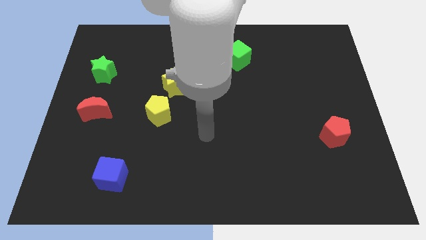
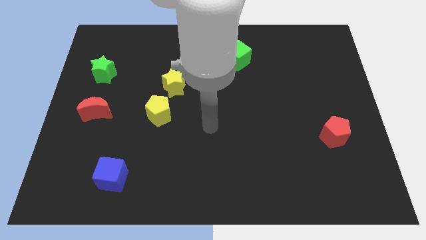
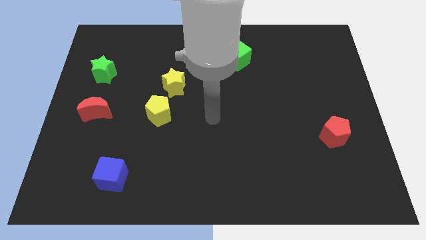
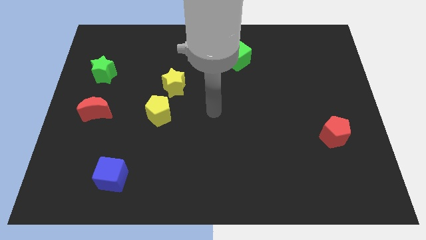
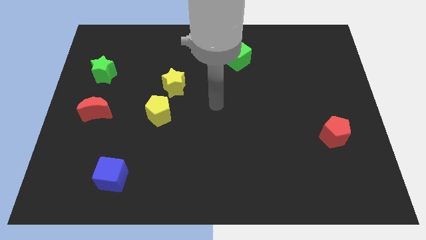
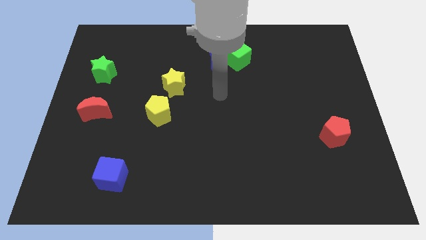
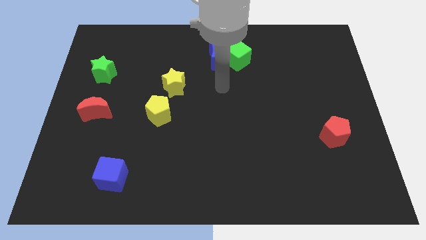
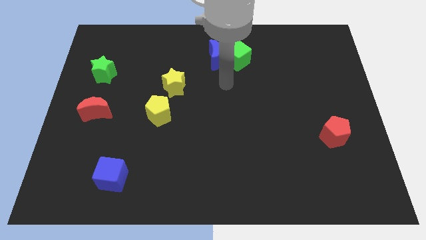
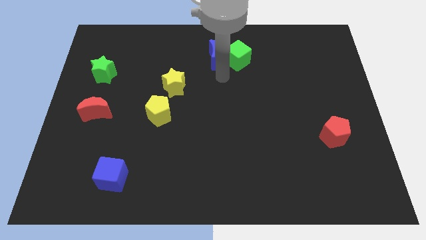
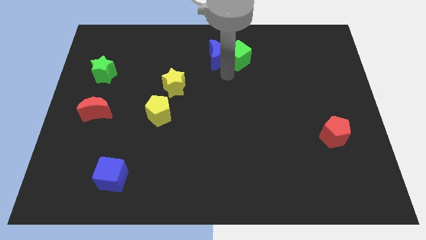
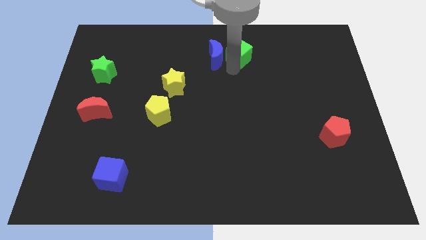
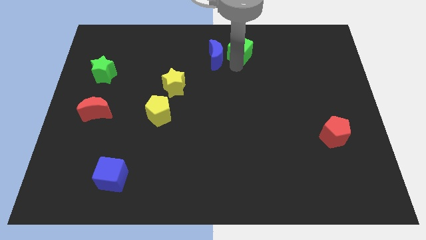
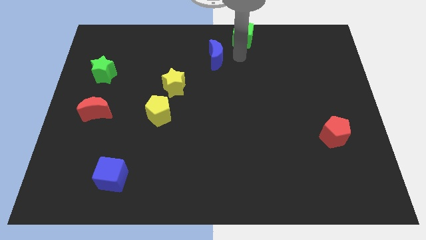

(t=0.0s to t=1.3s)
separate the blue moon from the green cube

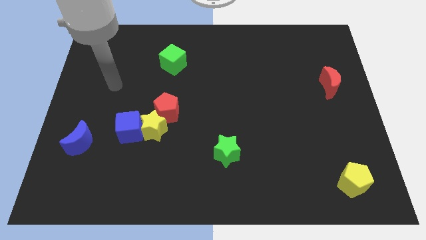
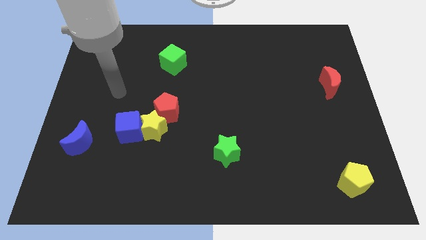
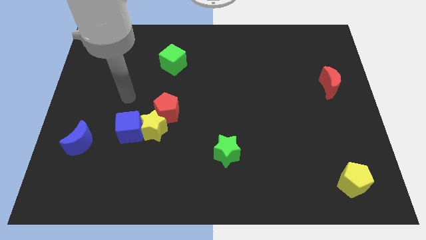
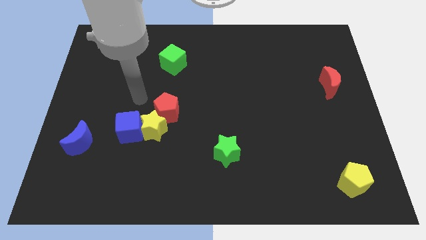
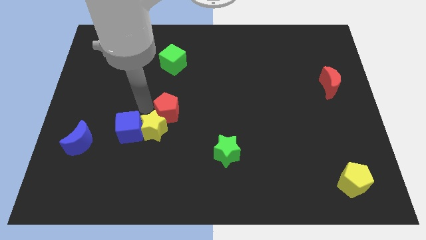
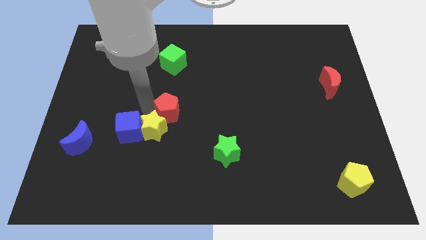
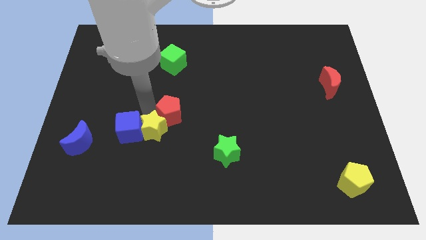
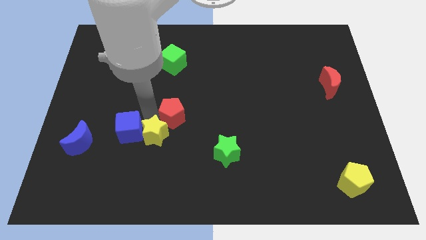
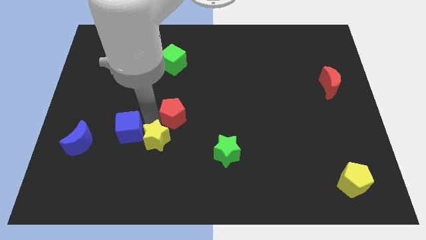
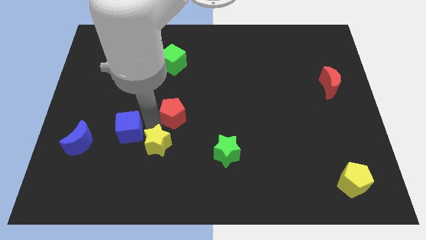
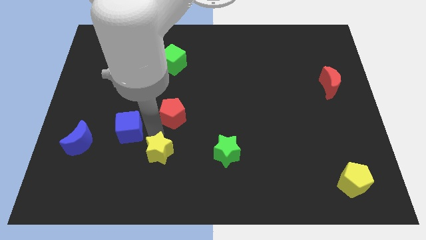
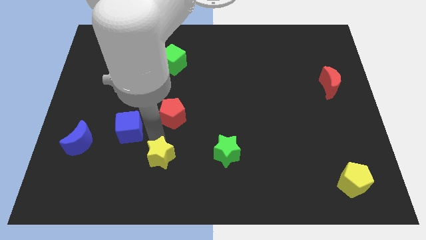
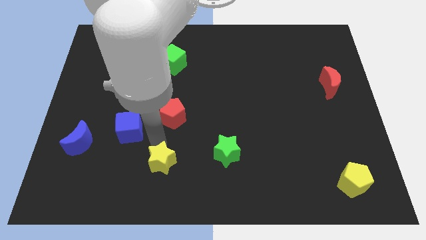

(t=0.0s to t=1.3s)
move the yellow star away from the blue cube and red pentagon

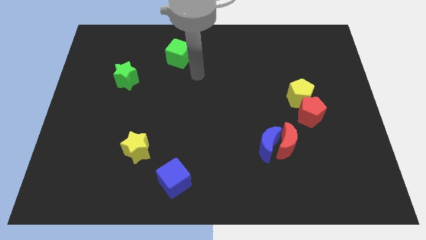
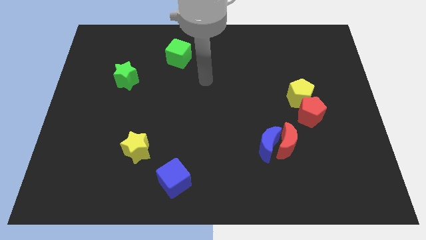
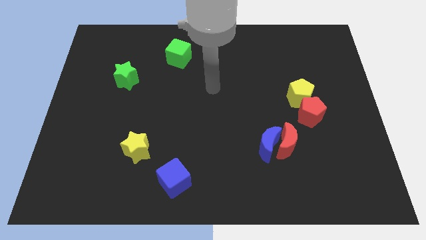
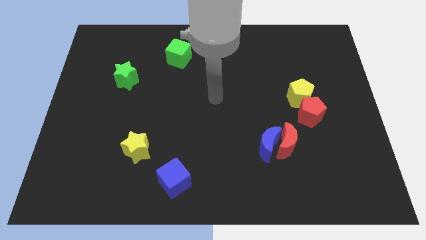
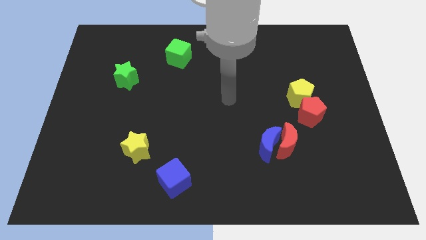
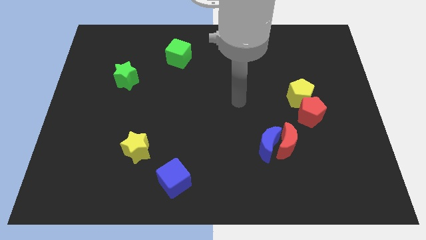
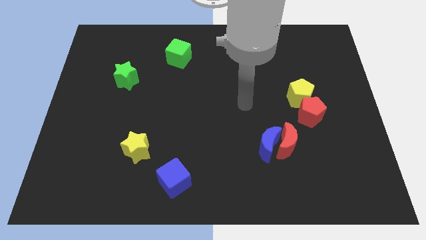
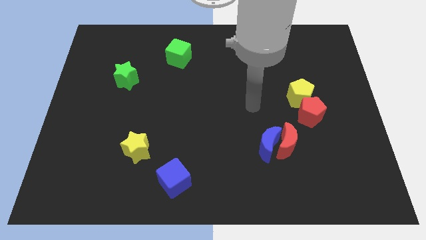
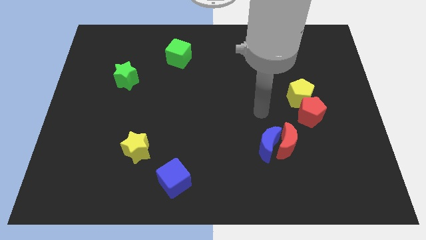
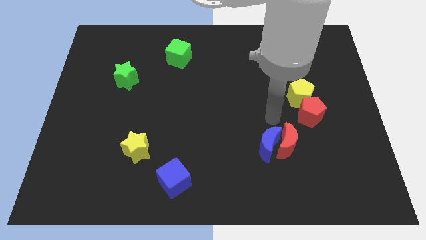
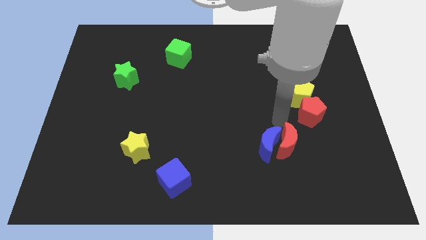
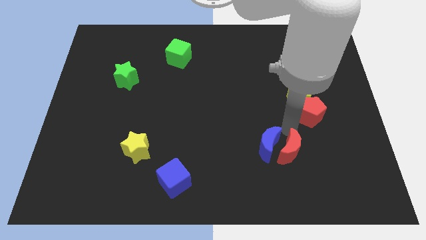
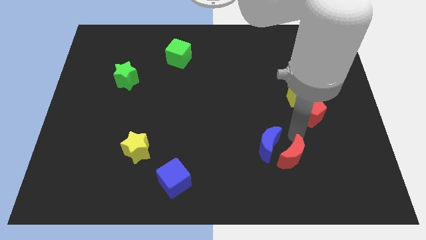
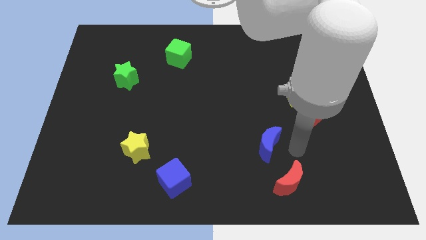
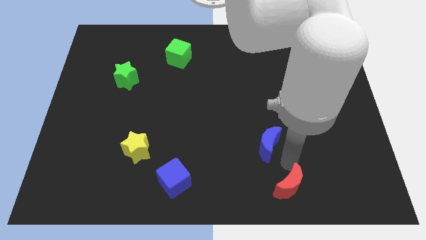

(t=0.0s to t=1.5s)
separate the blue moon from the red moon

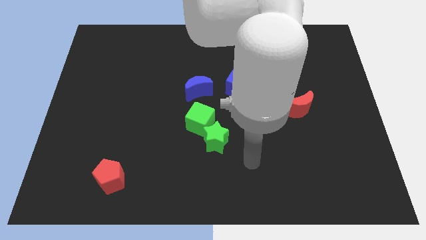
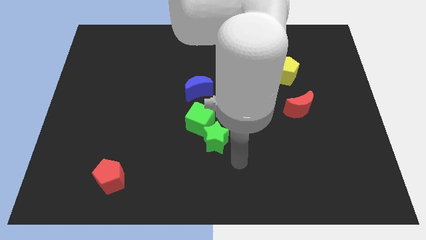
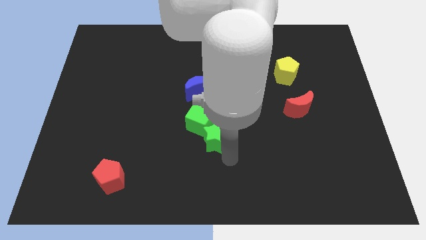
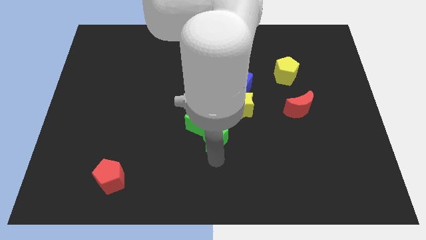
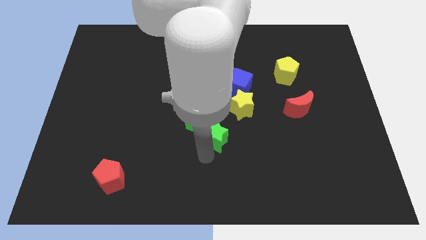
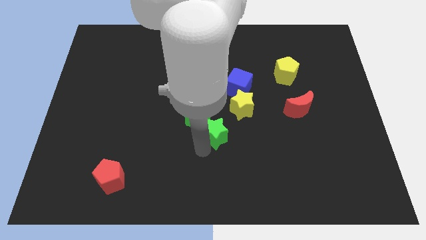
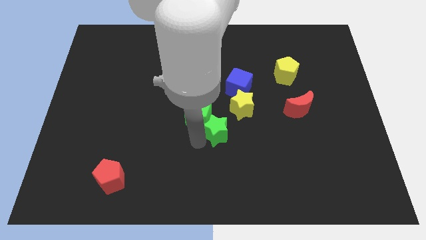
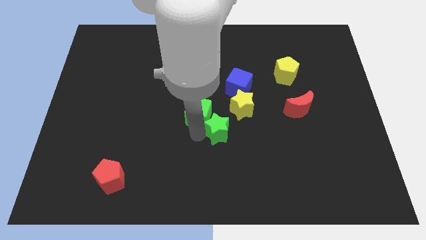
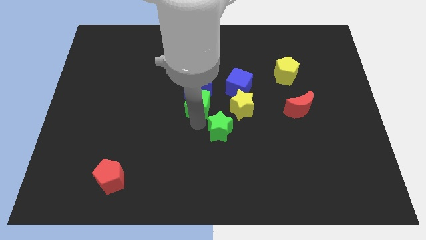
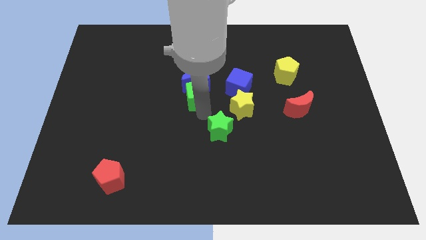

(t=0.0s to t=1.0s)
move the green star away from the green cube

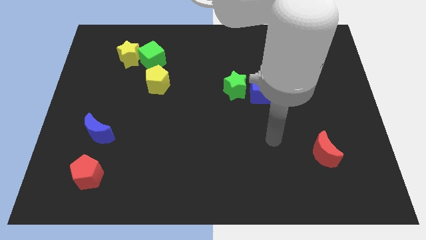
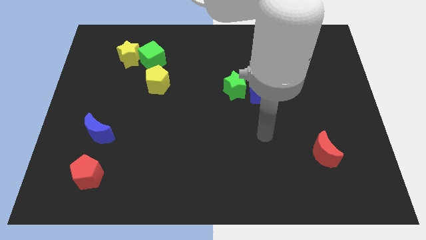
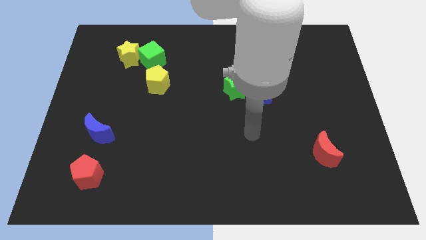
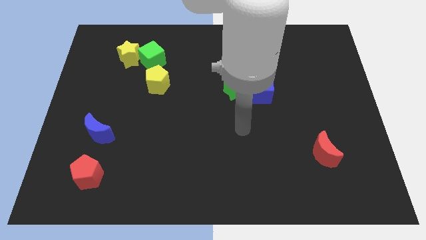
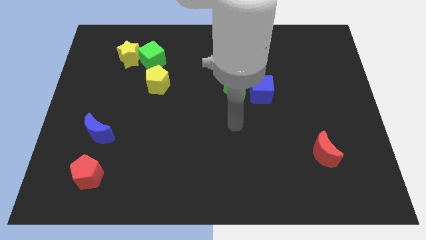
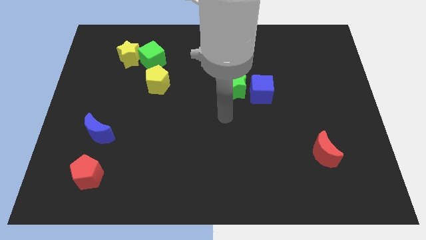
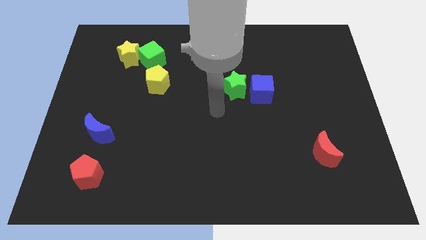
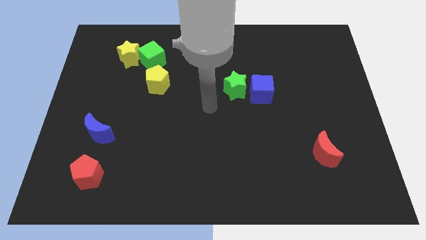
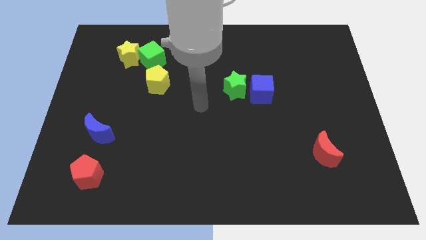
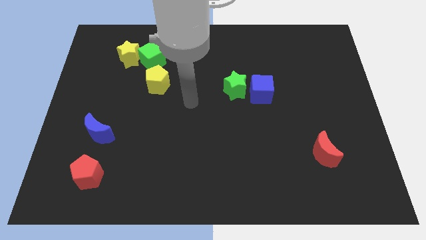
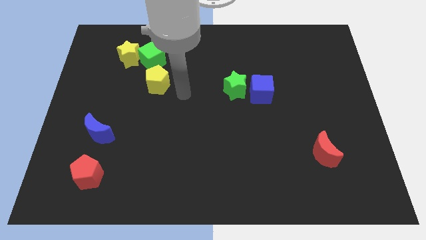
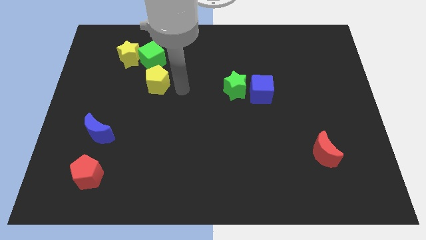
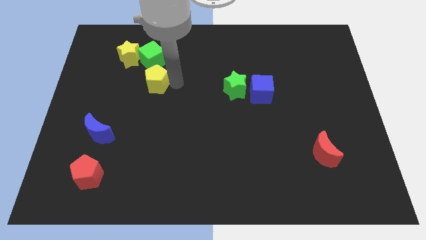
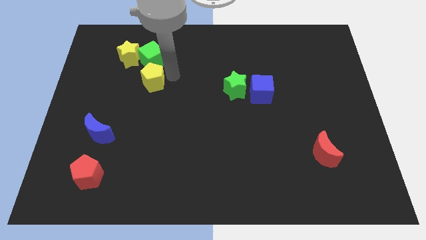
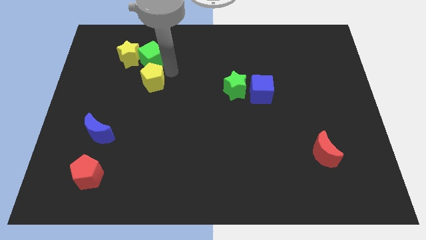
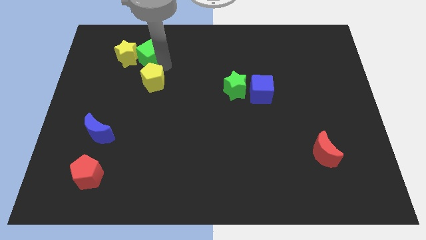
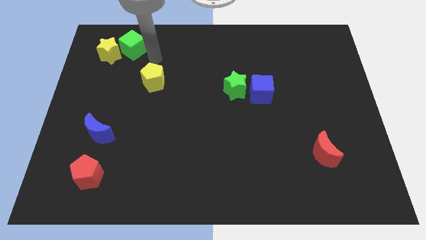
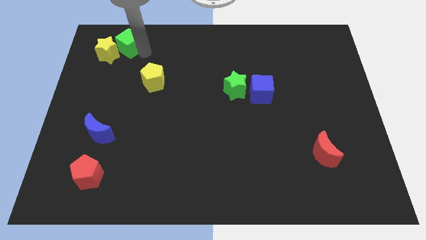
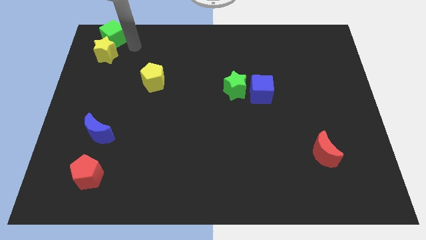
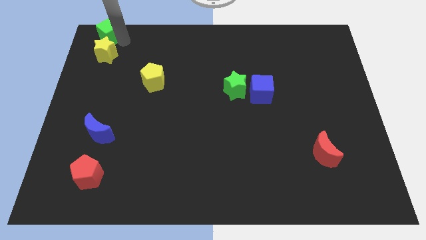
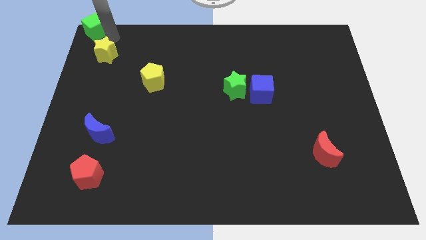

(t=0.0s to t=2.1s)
move the yellow star away from the green cube

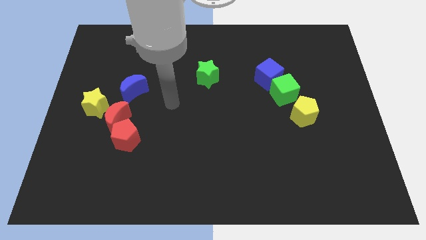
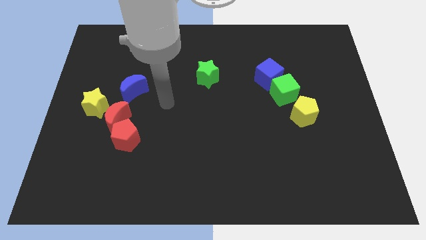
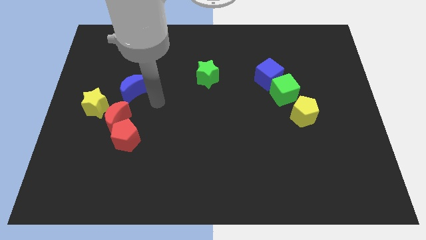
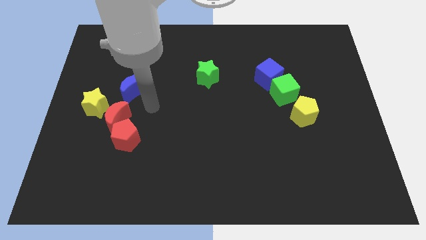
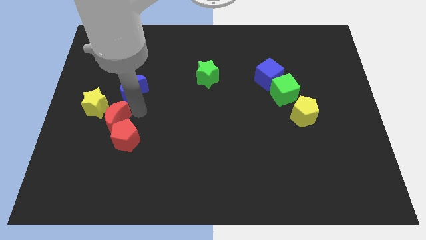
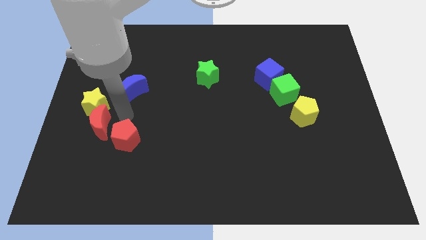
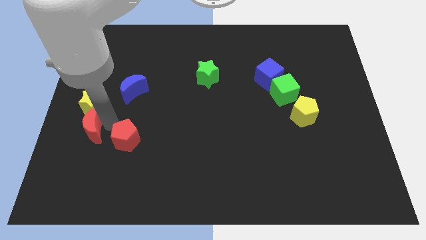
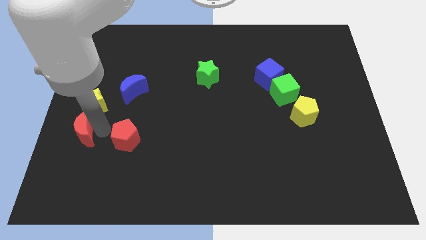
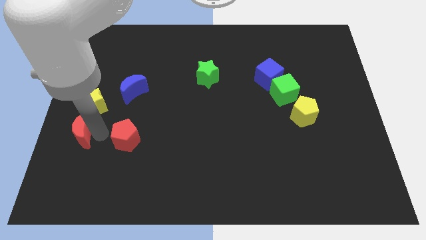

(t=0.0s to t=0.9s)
separate the red pentagon from the red moon

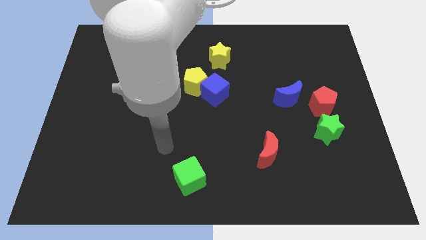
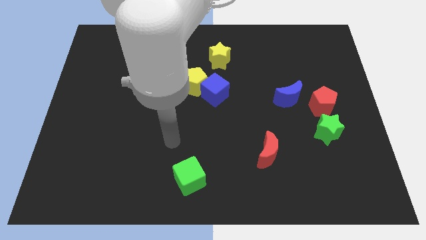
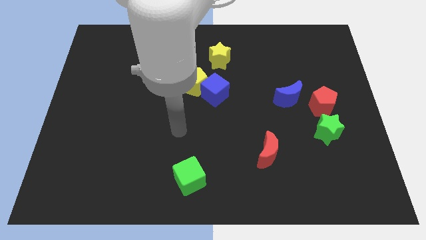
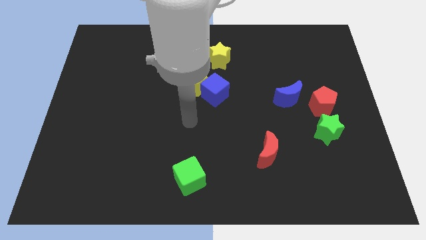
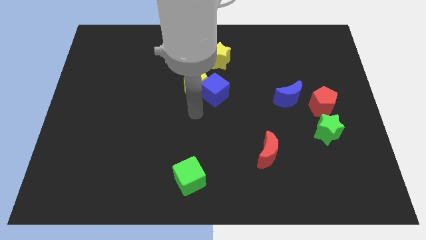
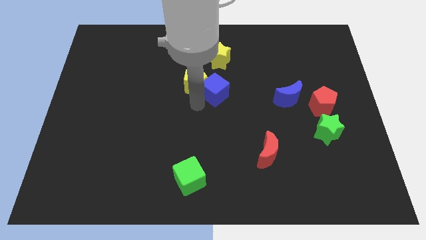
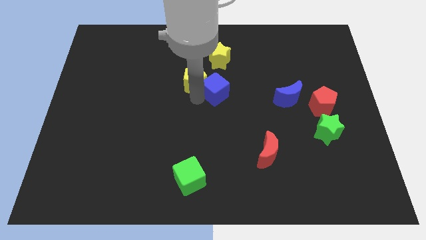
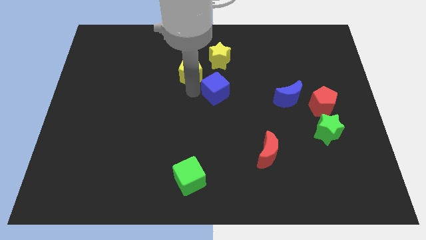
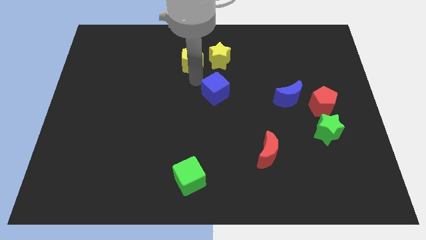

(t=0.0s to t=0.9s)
pull the blue cube apart from the yellow pentagon

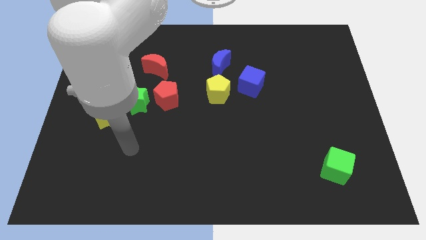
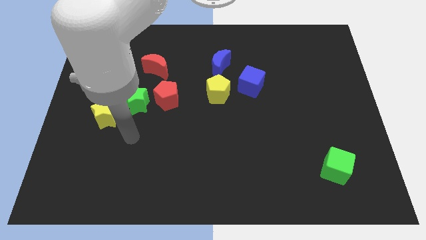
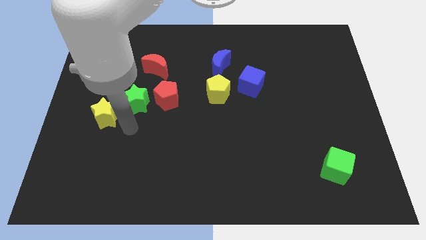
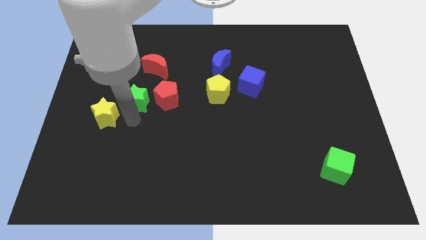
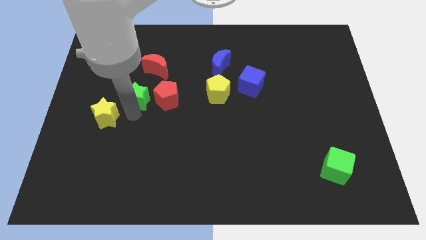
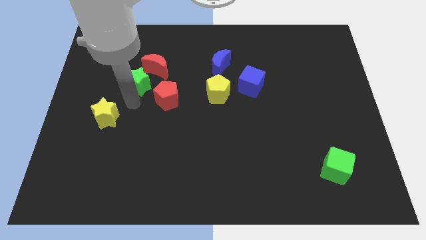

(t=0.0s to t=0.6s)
move the yellow star away from the green star
